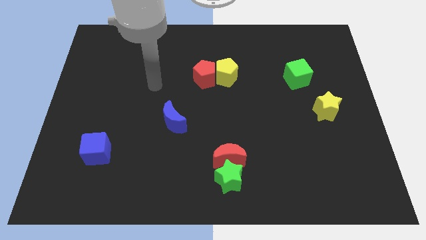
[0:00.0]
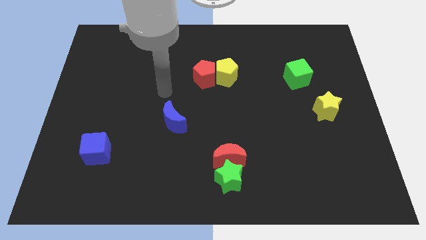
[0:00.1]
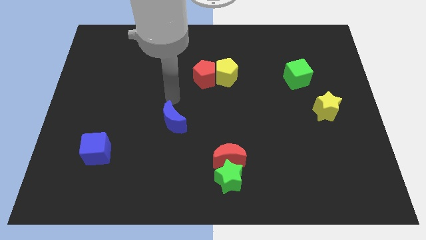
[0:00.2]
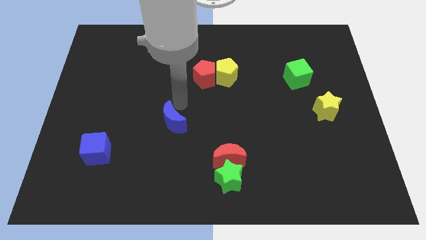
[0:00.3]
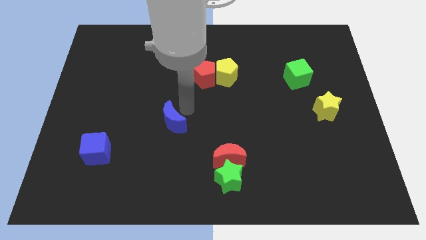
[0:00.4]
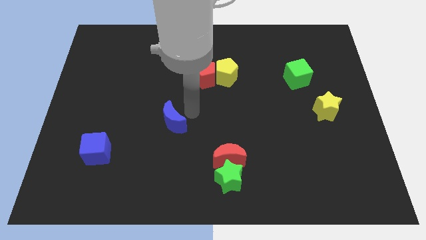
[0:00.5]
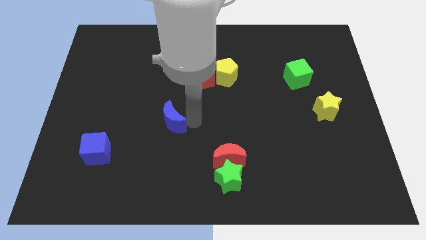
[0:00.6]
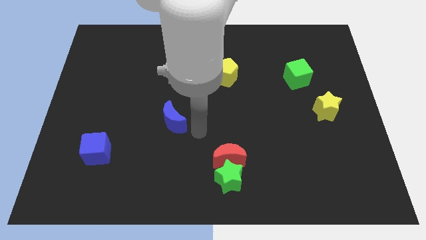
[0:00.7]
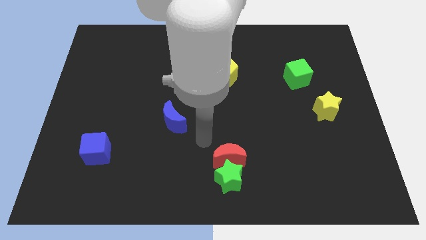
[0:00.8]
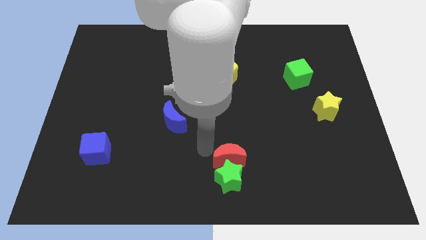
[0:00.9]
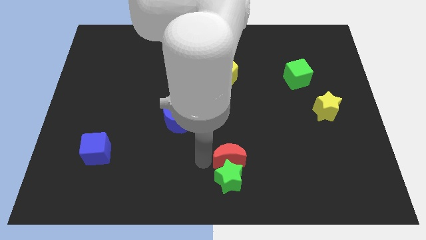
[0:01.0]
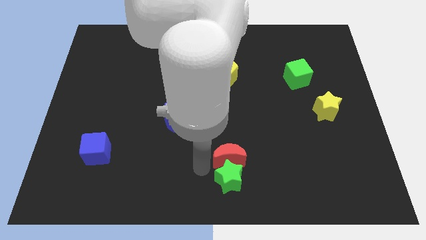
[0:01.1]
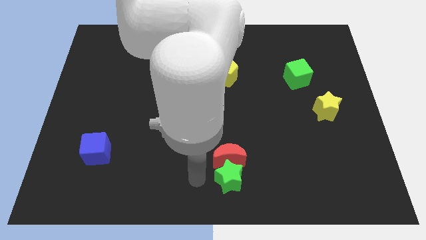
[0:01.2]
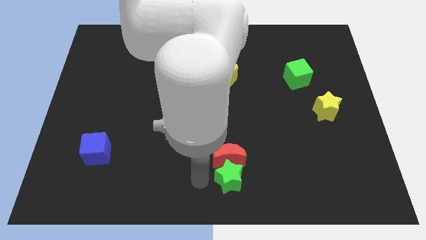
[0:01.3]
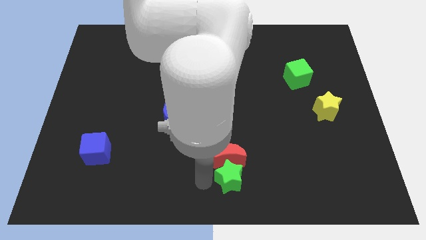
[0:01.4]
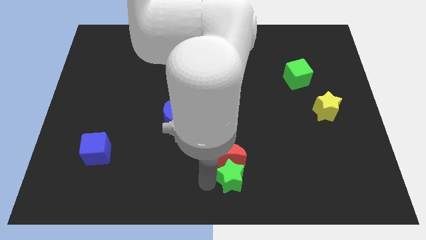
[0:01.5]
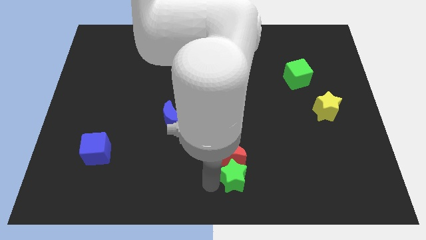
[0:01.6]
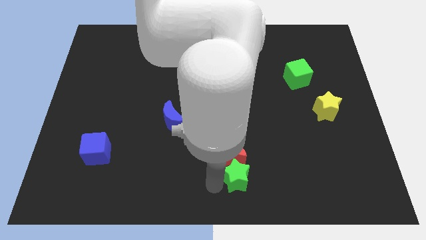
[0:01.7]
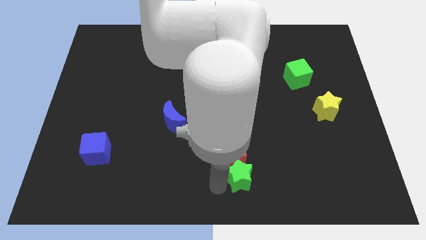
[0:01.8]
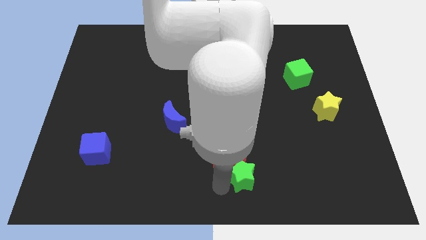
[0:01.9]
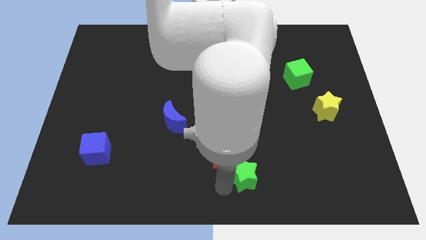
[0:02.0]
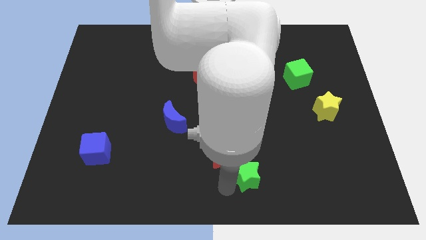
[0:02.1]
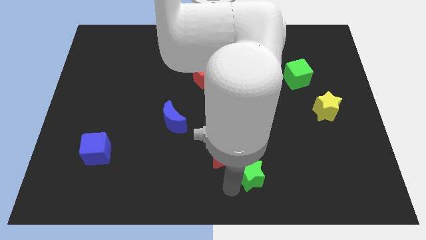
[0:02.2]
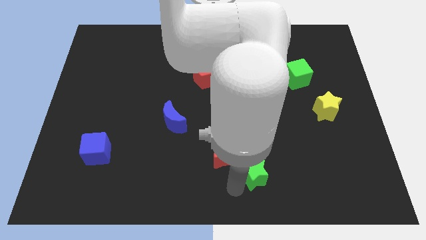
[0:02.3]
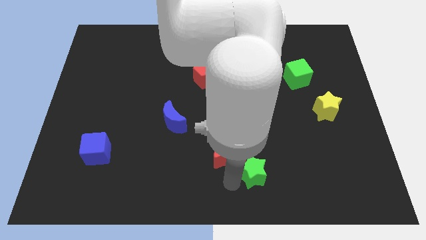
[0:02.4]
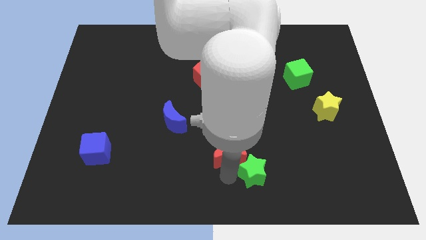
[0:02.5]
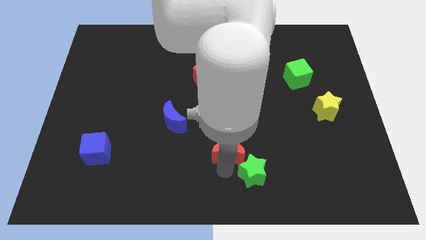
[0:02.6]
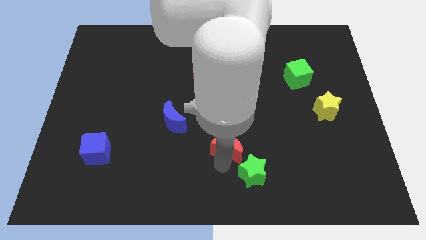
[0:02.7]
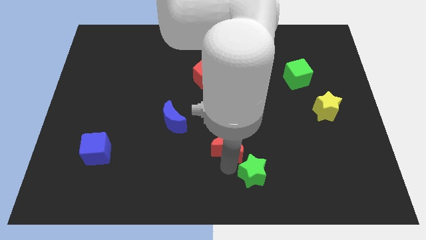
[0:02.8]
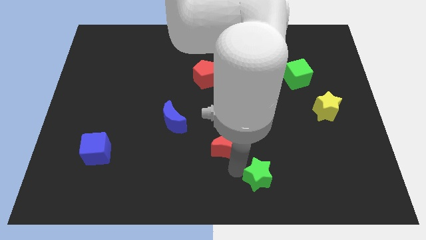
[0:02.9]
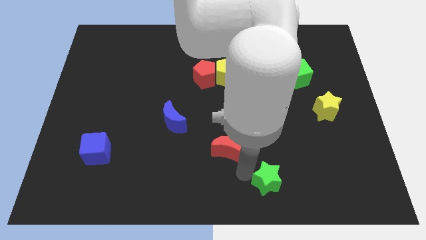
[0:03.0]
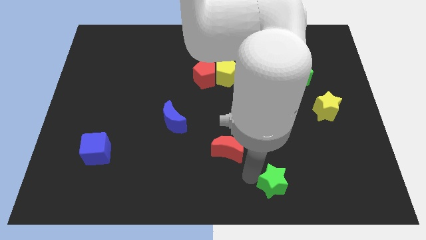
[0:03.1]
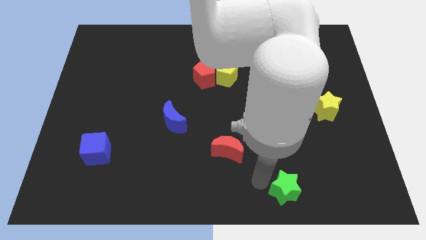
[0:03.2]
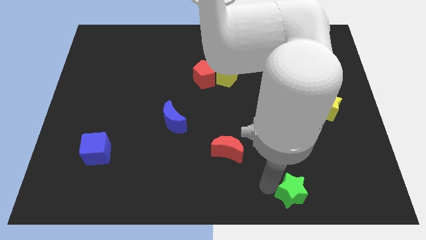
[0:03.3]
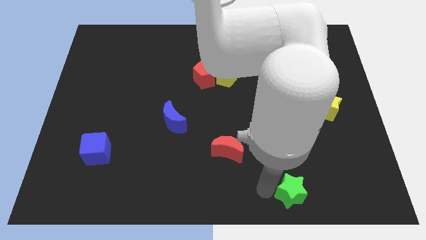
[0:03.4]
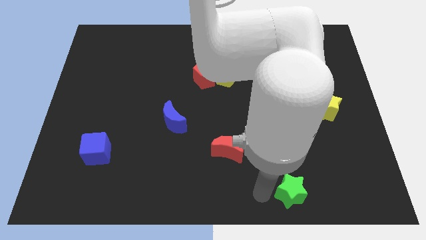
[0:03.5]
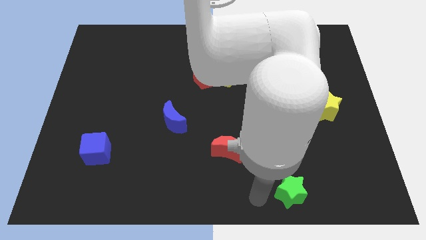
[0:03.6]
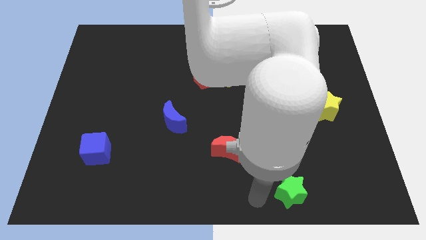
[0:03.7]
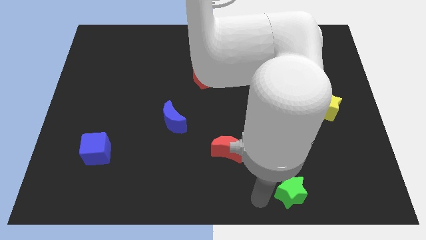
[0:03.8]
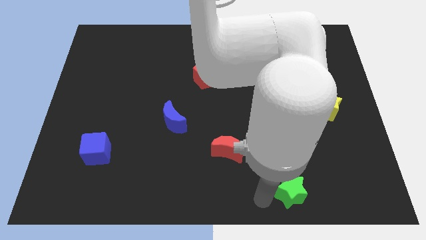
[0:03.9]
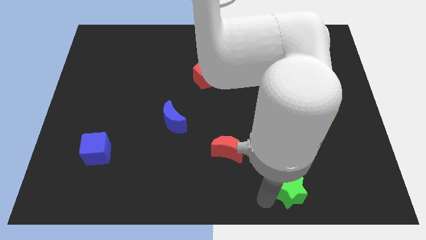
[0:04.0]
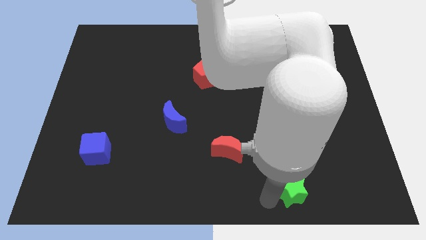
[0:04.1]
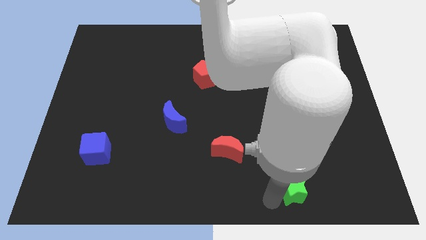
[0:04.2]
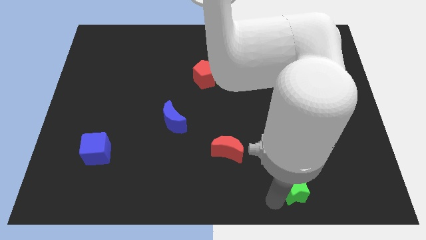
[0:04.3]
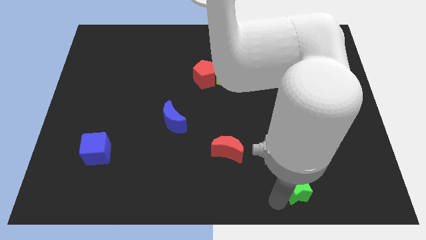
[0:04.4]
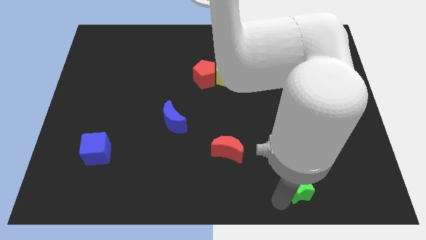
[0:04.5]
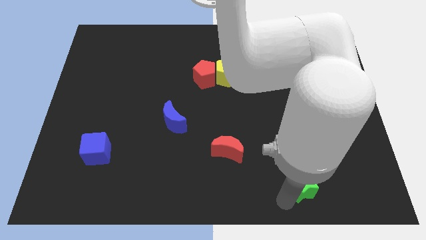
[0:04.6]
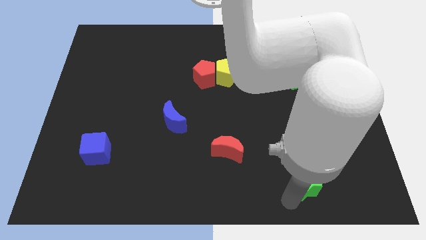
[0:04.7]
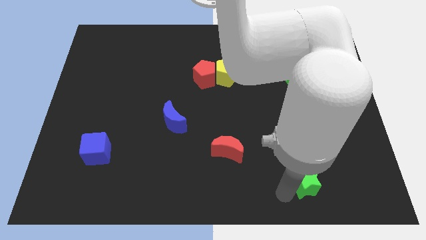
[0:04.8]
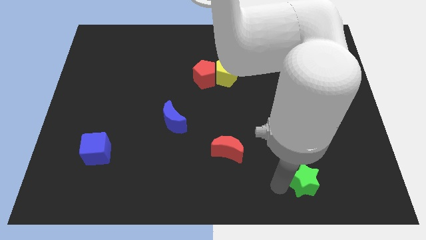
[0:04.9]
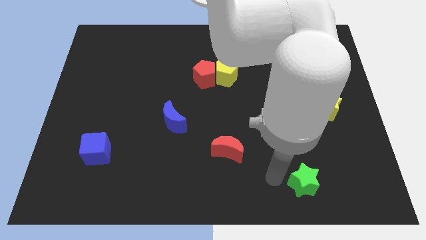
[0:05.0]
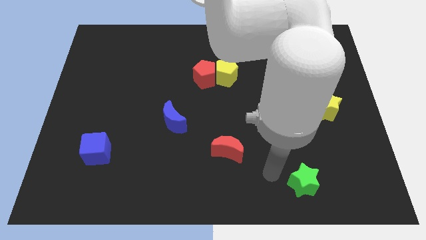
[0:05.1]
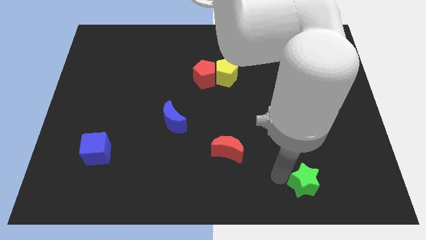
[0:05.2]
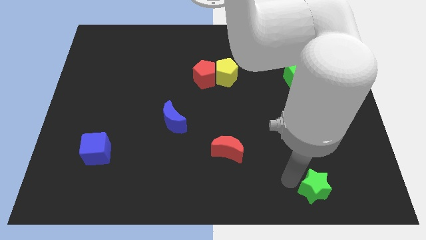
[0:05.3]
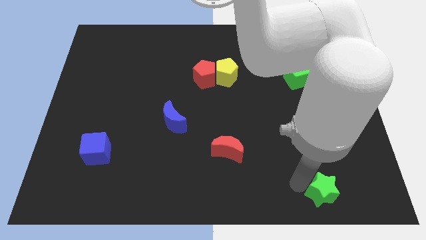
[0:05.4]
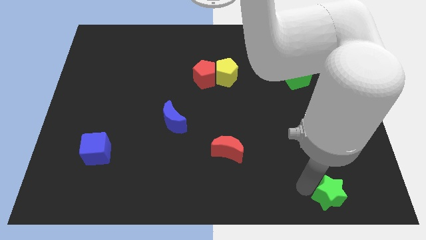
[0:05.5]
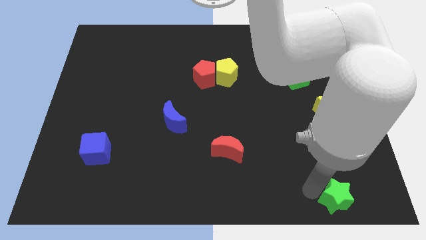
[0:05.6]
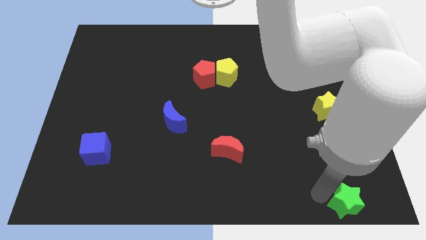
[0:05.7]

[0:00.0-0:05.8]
push the green star to the bottom right

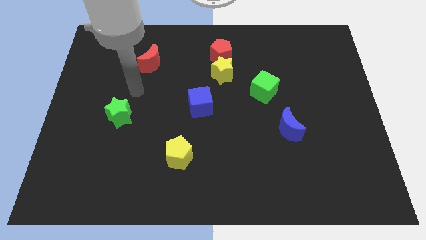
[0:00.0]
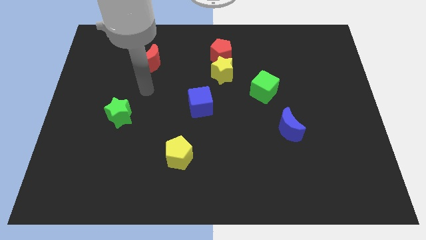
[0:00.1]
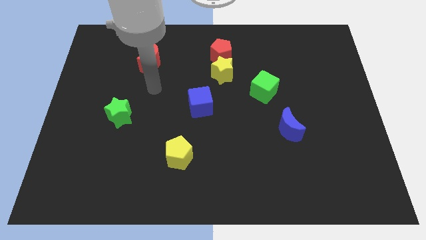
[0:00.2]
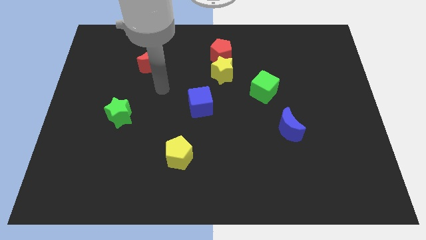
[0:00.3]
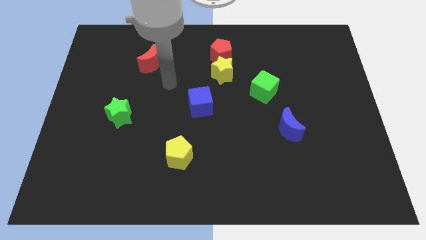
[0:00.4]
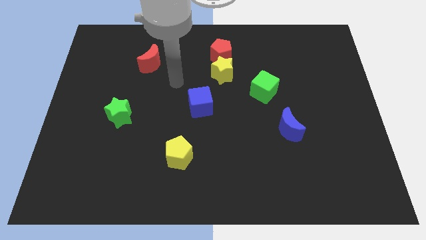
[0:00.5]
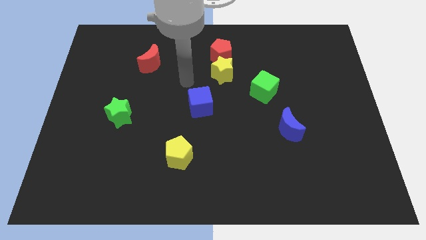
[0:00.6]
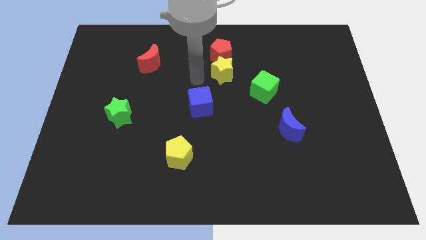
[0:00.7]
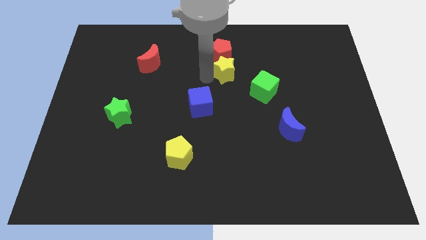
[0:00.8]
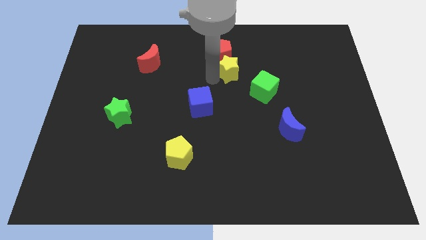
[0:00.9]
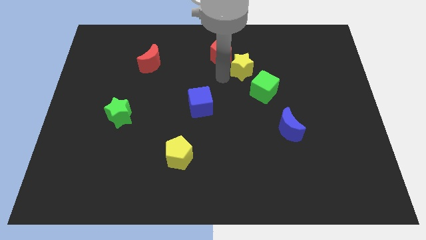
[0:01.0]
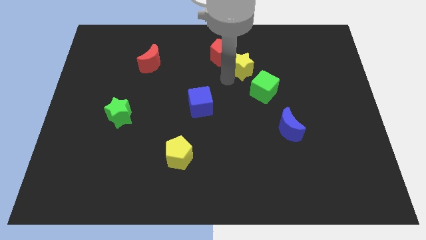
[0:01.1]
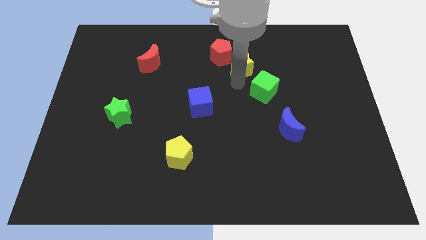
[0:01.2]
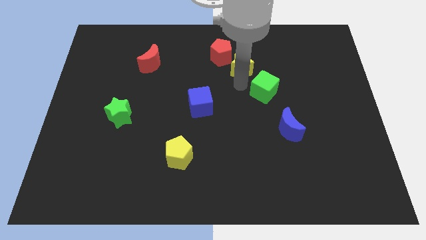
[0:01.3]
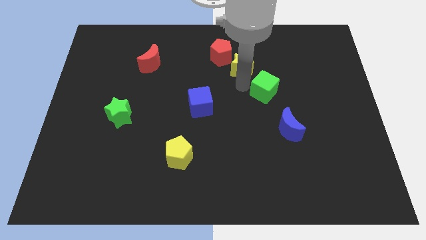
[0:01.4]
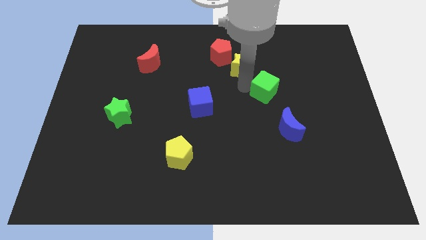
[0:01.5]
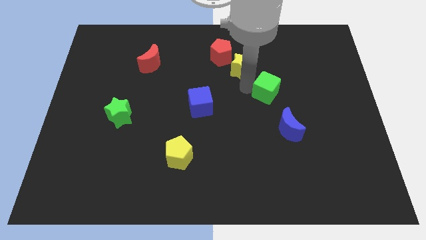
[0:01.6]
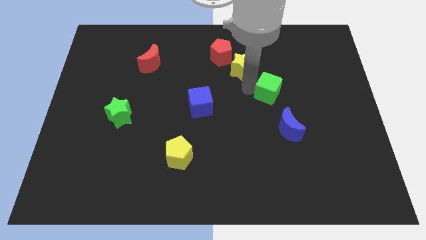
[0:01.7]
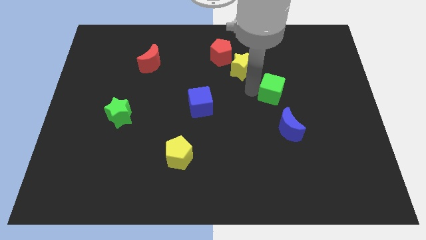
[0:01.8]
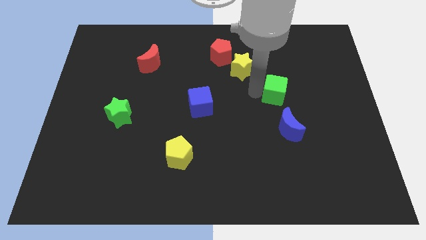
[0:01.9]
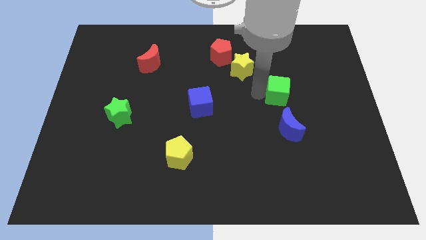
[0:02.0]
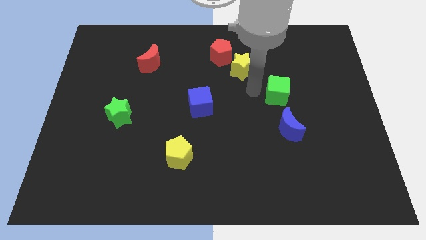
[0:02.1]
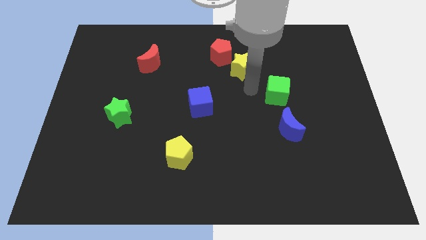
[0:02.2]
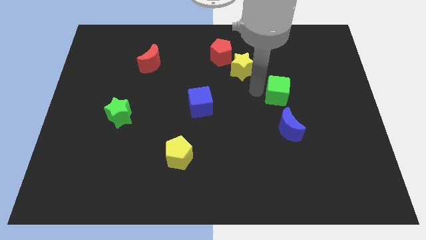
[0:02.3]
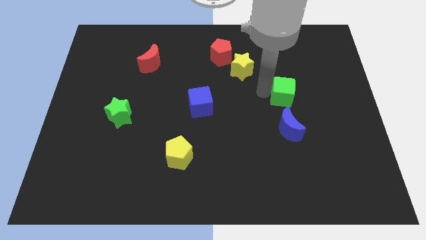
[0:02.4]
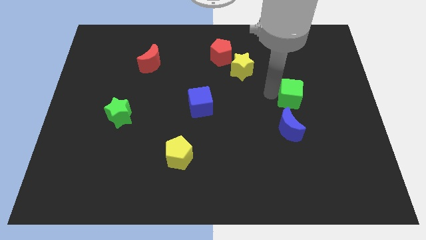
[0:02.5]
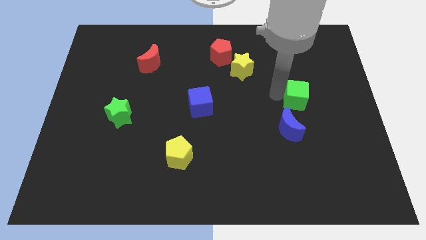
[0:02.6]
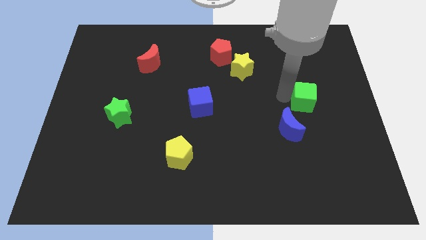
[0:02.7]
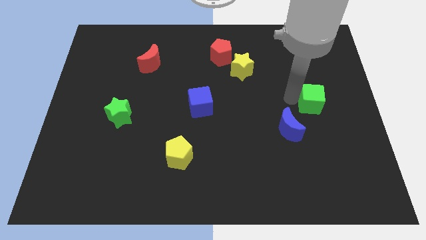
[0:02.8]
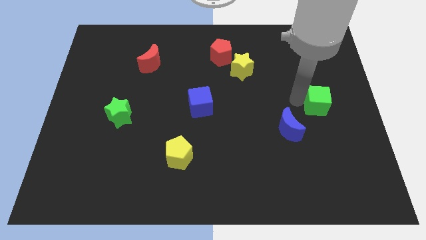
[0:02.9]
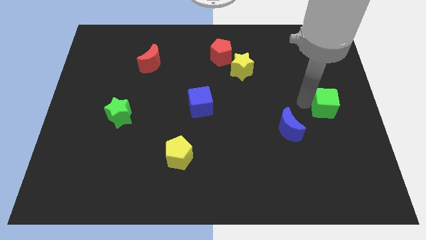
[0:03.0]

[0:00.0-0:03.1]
put the green cube to the right side of the board
